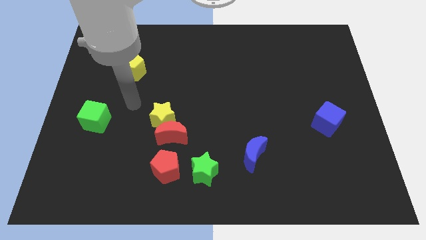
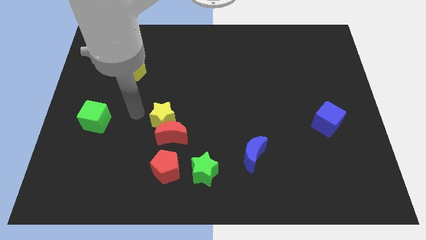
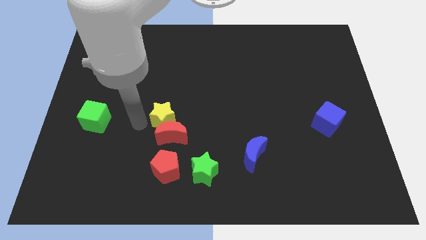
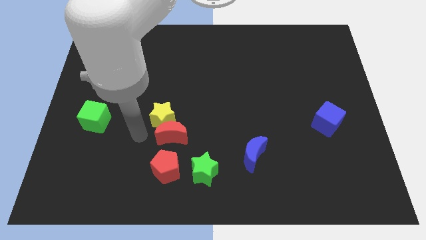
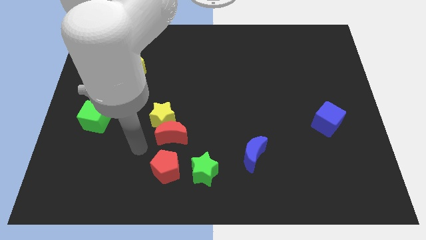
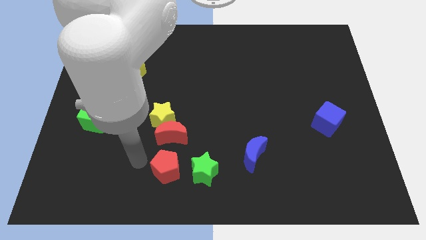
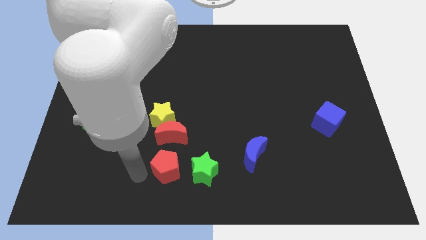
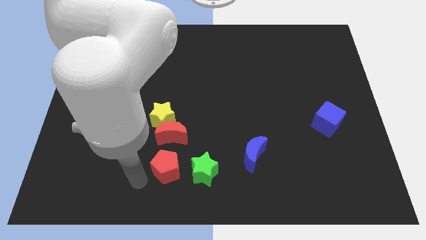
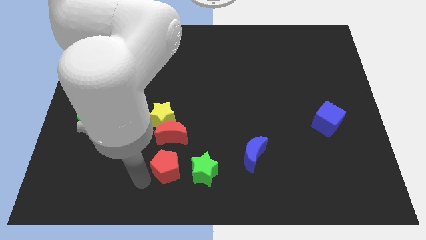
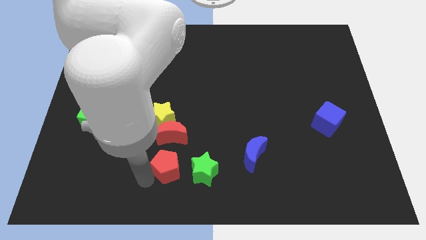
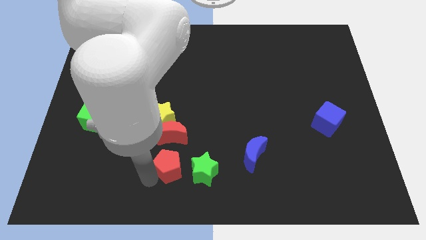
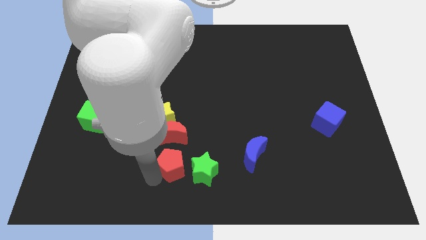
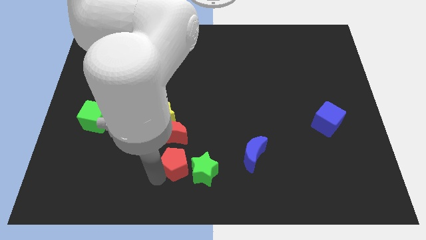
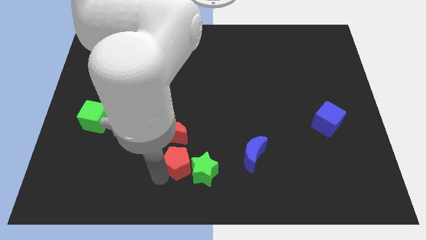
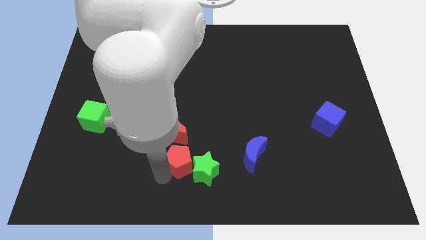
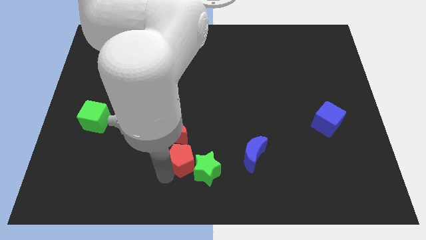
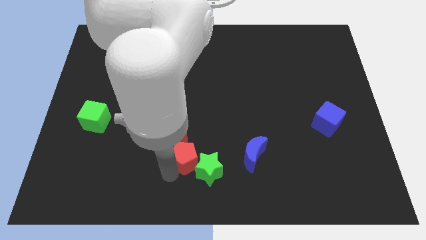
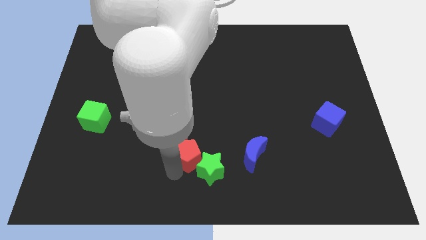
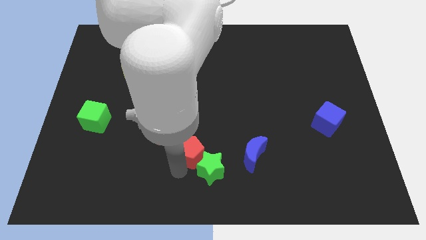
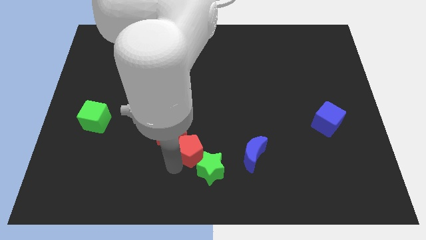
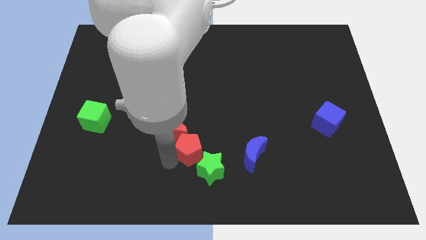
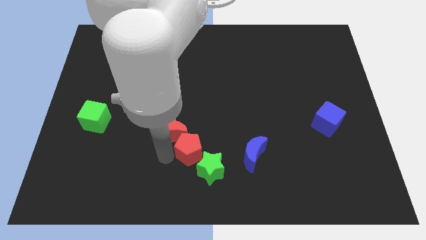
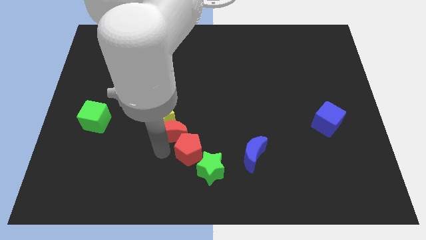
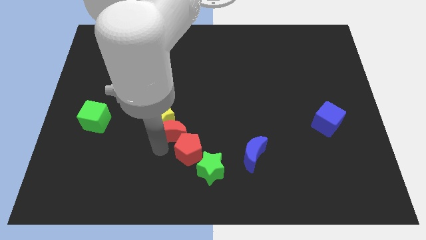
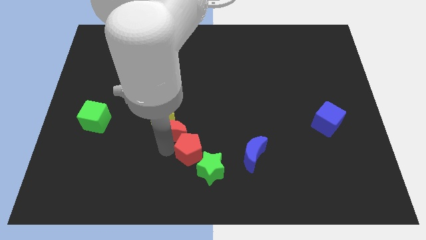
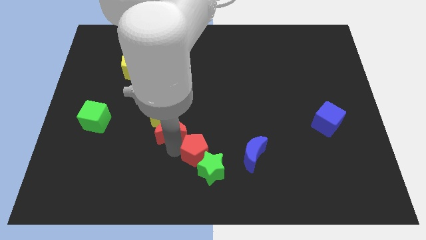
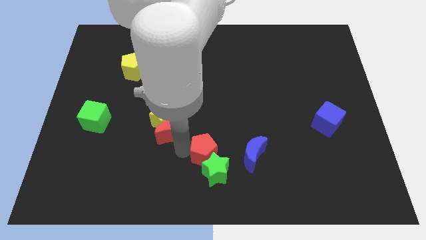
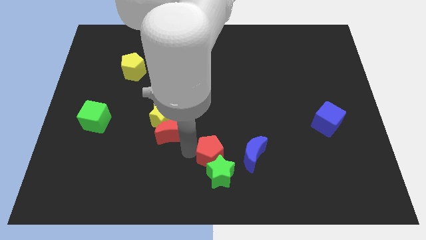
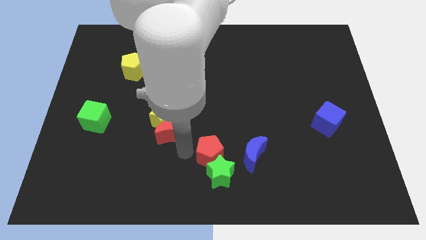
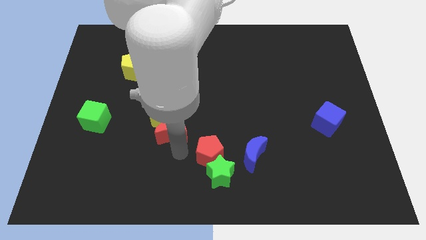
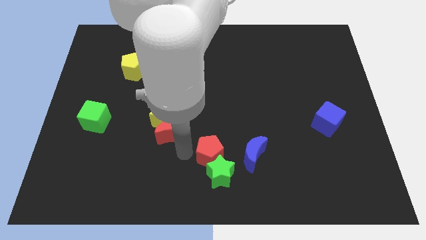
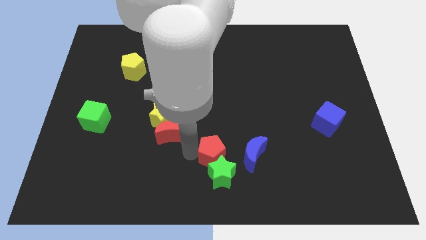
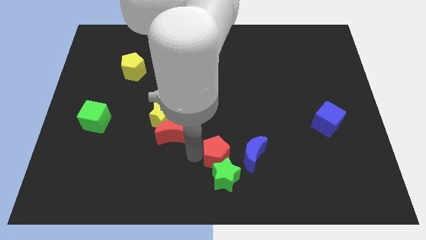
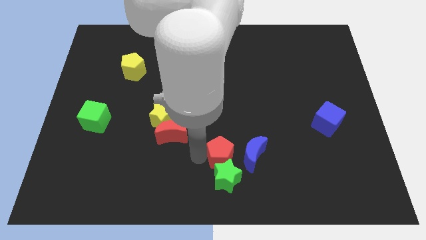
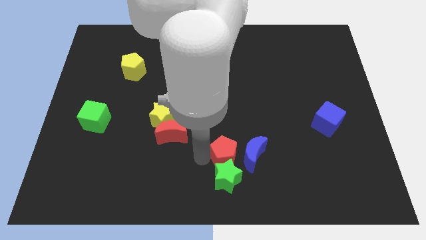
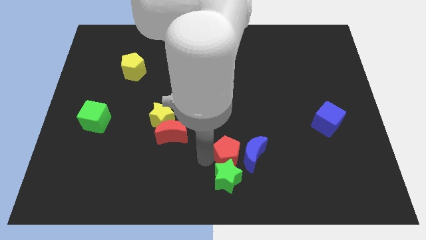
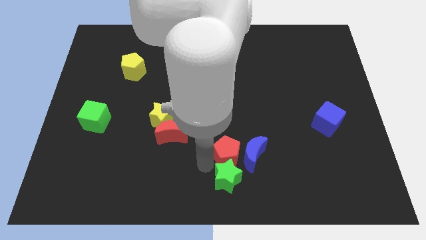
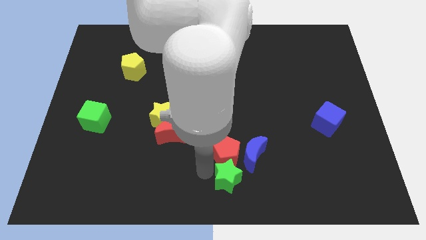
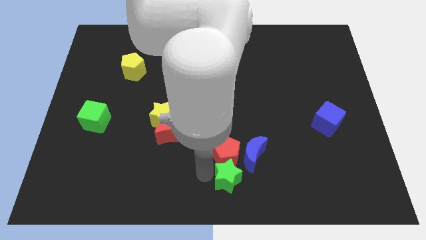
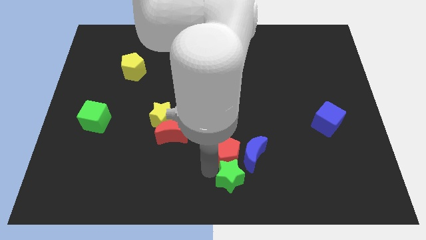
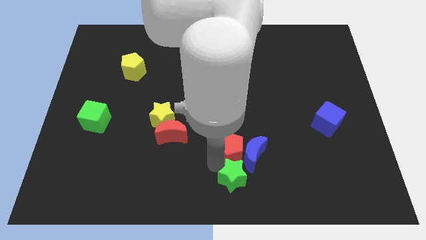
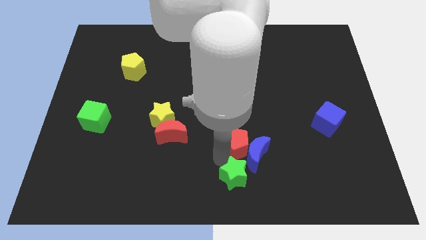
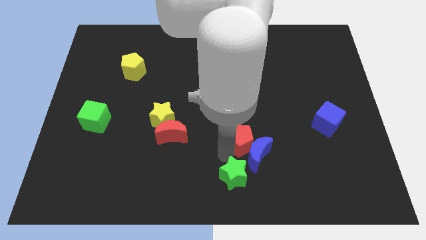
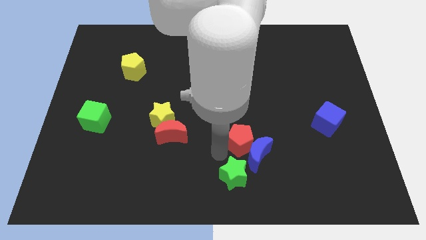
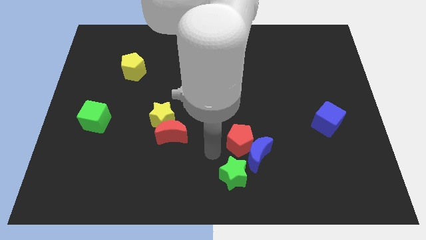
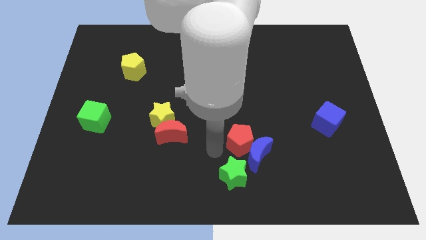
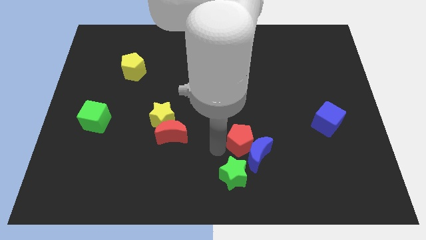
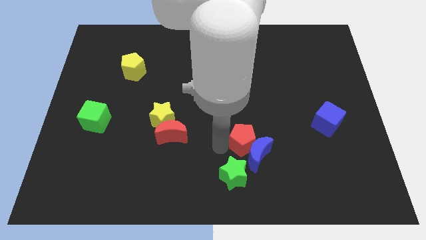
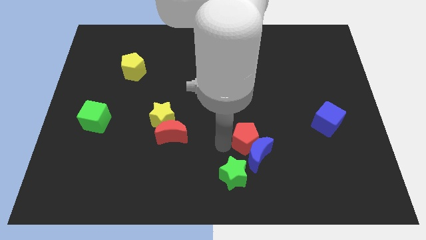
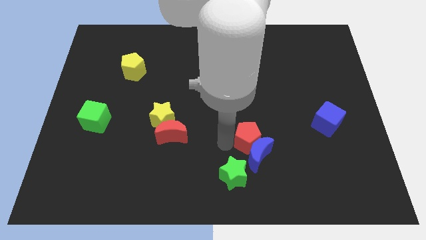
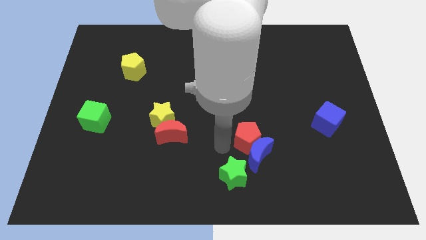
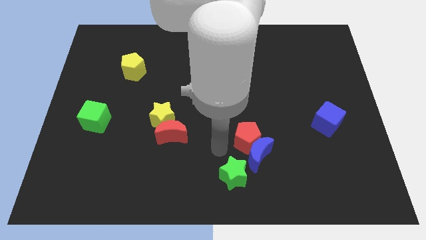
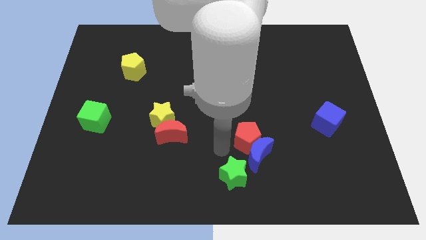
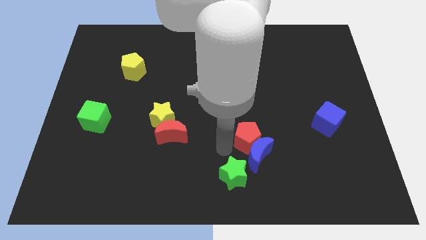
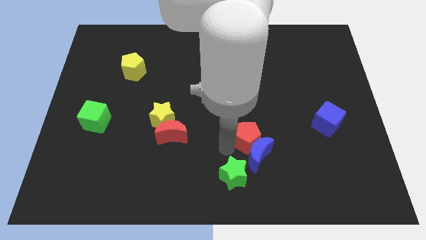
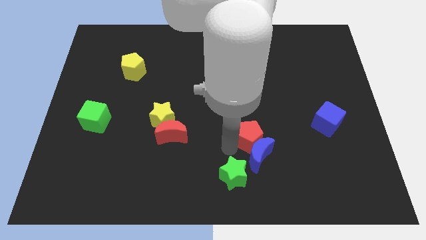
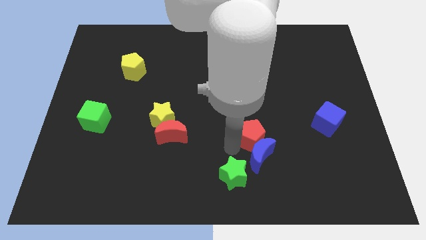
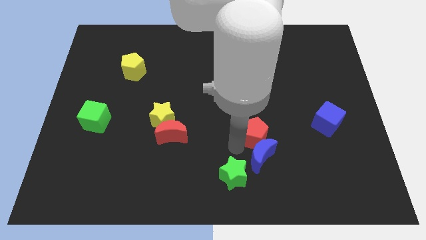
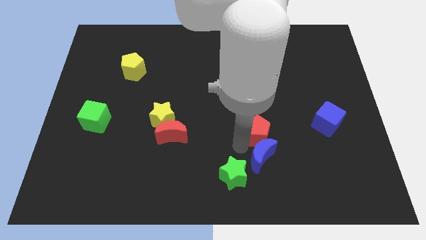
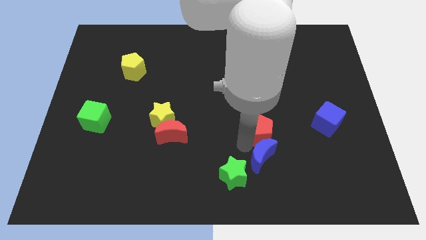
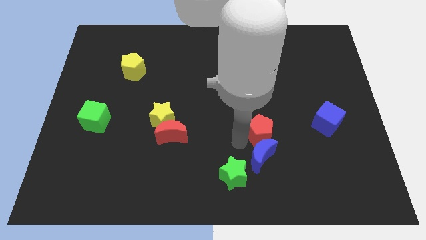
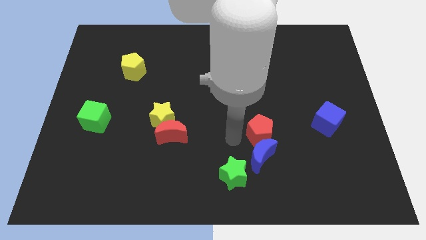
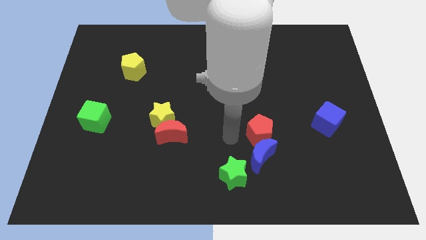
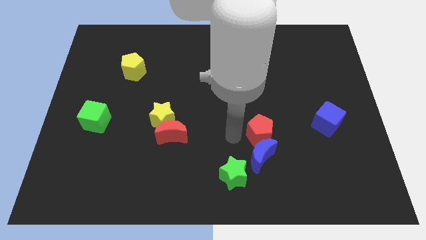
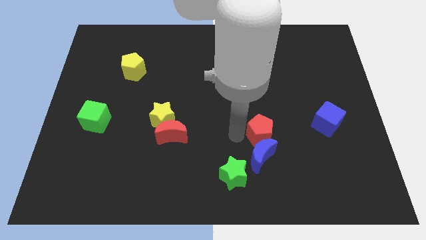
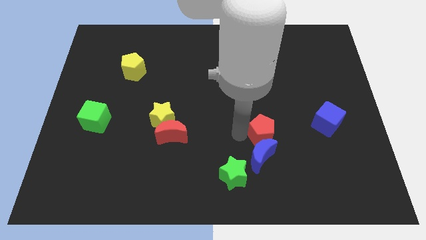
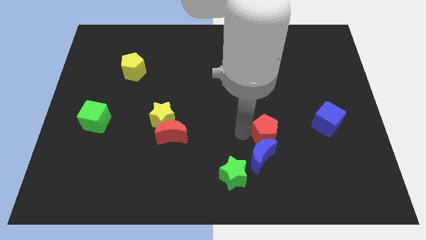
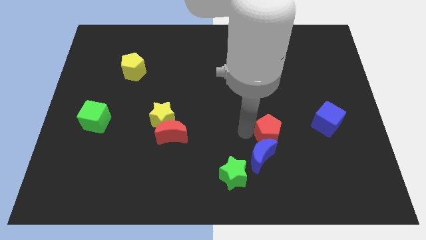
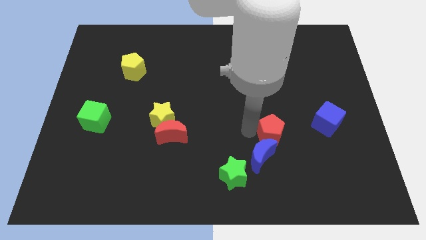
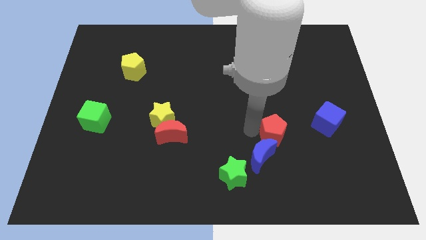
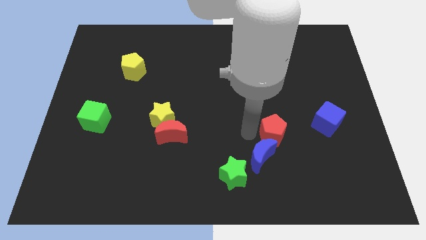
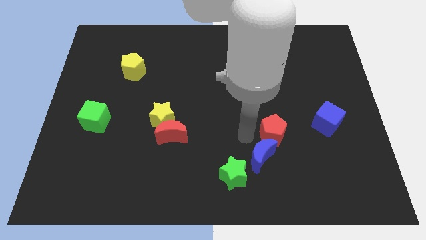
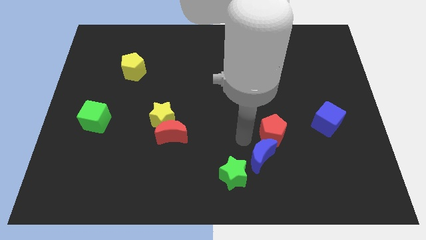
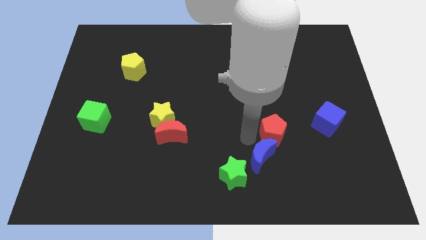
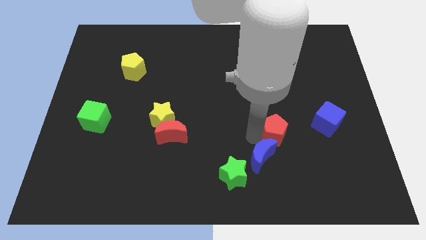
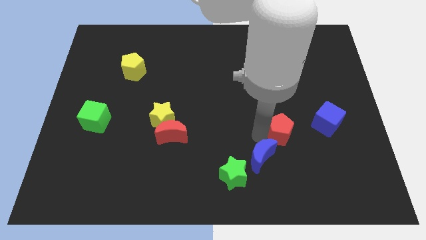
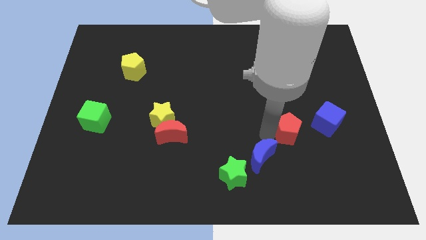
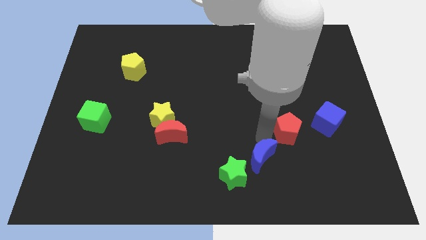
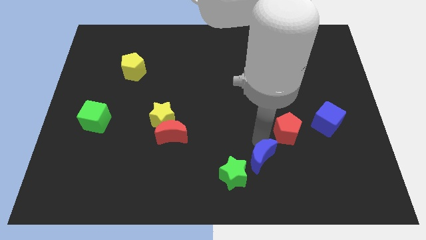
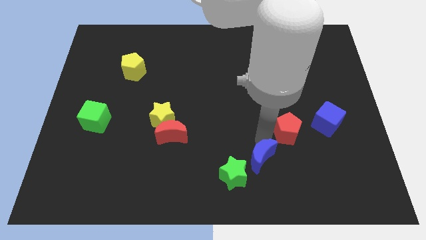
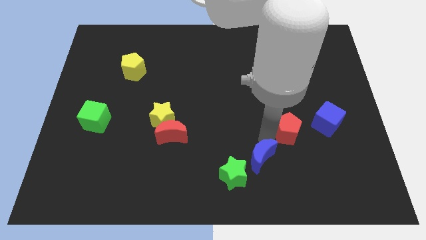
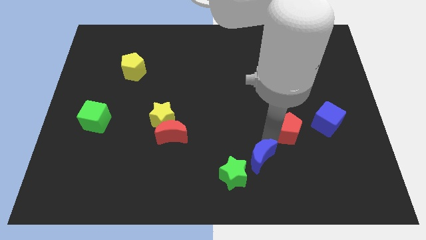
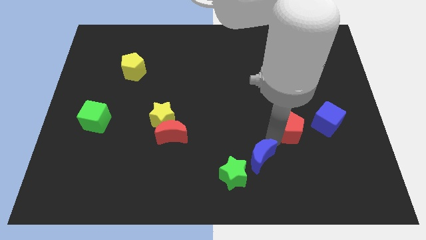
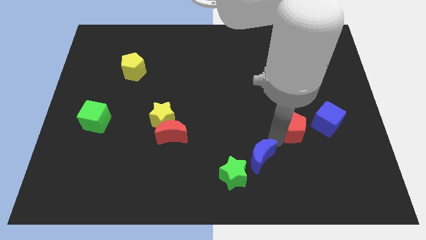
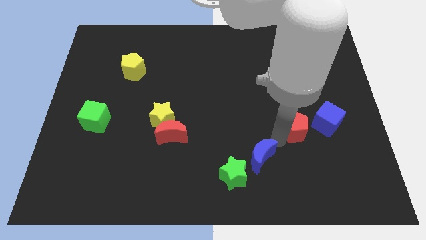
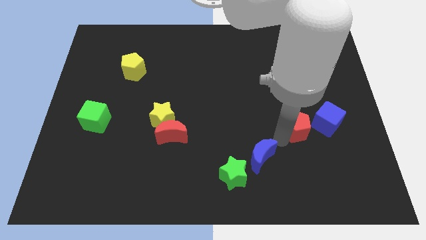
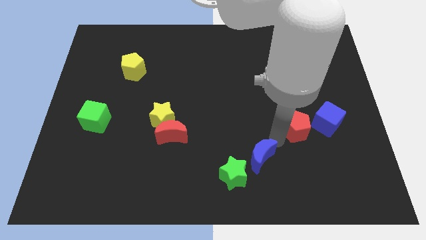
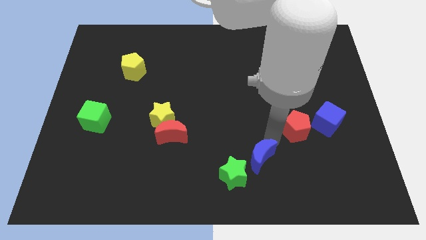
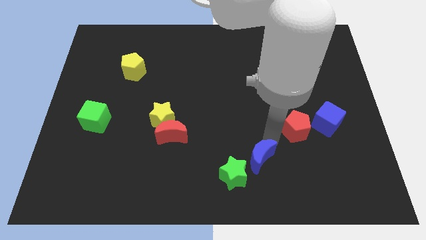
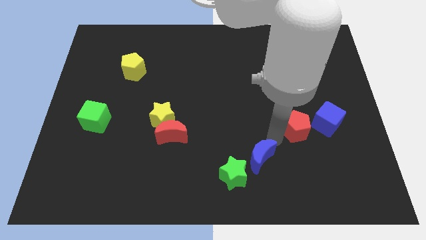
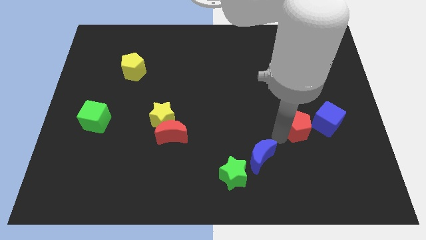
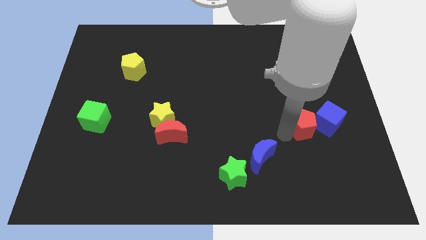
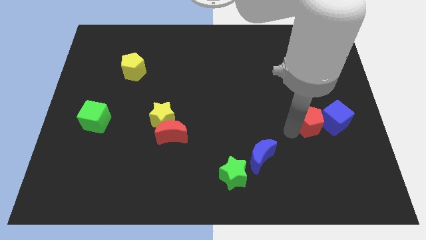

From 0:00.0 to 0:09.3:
slide the red pentagon towards the blue cube
